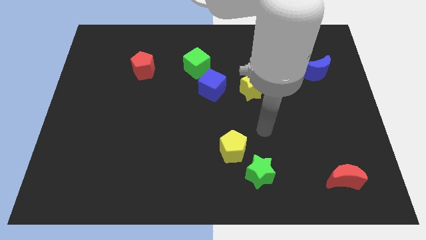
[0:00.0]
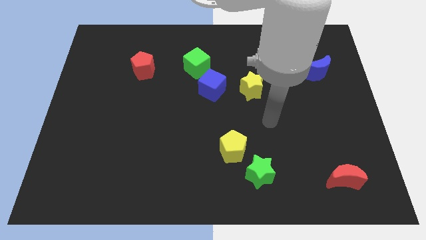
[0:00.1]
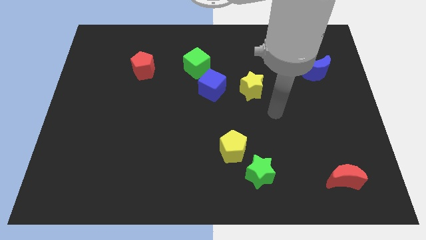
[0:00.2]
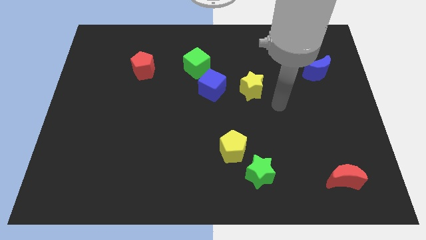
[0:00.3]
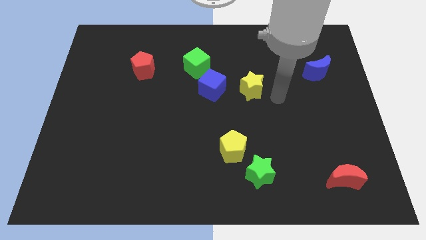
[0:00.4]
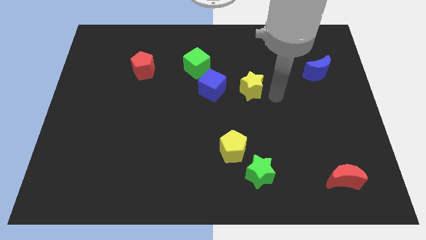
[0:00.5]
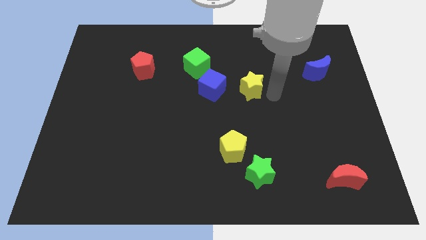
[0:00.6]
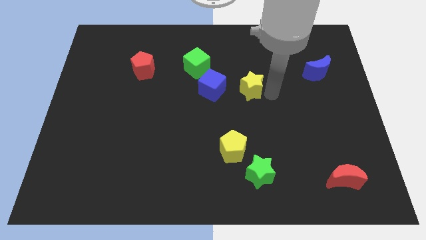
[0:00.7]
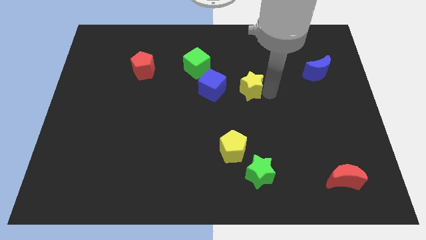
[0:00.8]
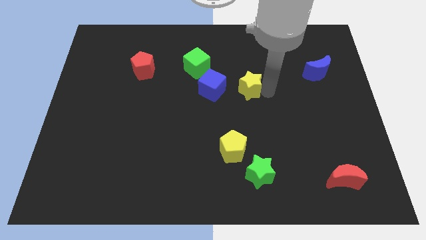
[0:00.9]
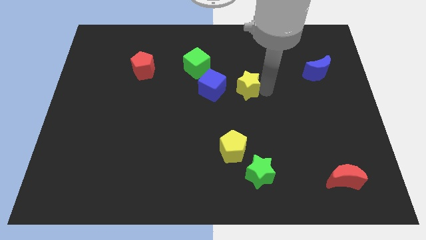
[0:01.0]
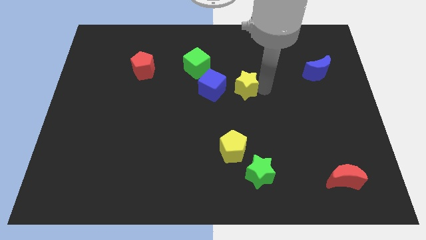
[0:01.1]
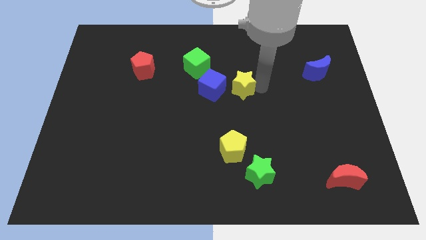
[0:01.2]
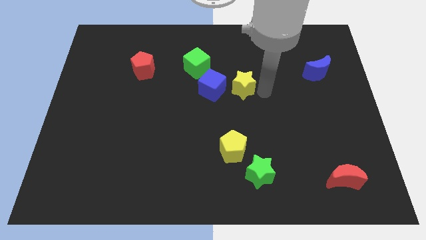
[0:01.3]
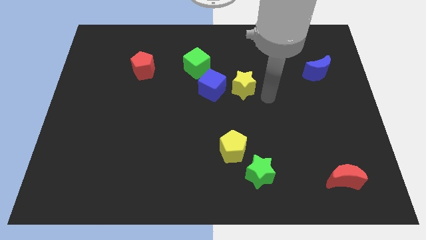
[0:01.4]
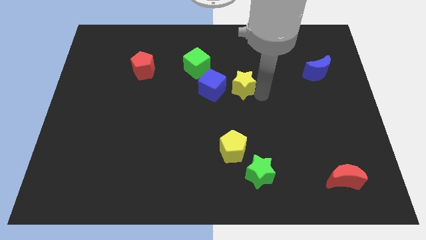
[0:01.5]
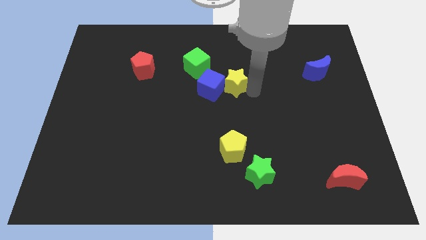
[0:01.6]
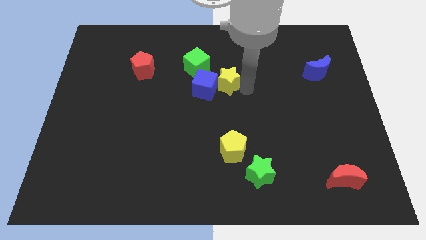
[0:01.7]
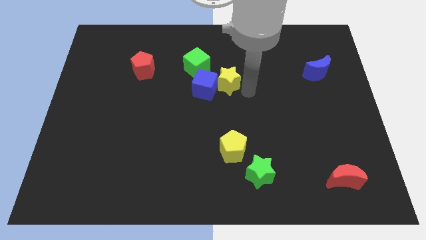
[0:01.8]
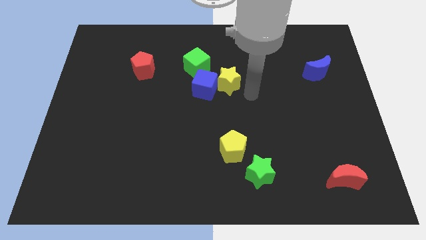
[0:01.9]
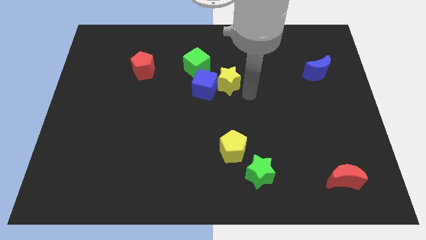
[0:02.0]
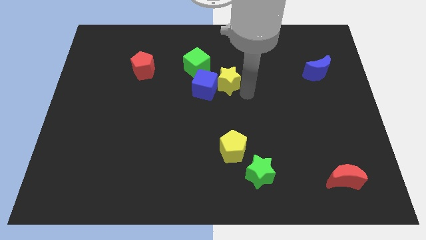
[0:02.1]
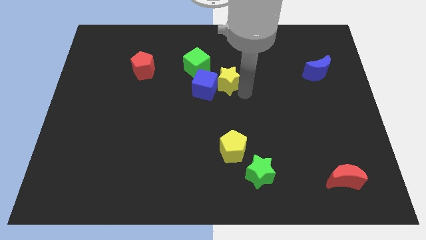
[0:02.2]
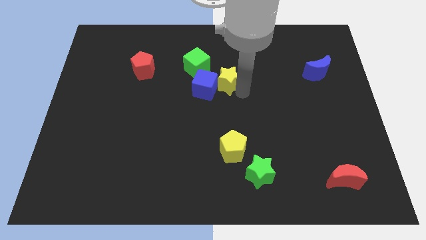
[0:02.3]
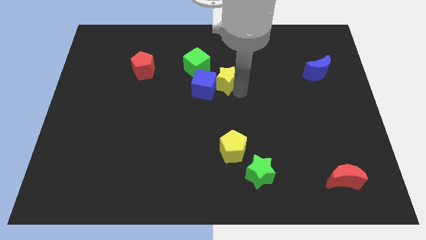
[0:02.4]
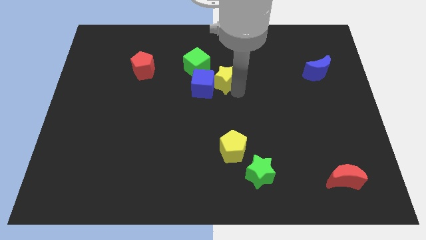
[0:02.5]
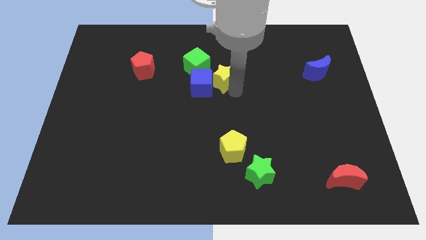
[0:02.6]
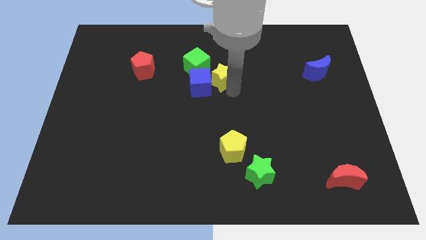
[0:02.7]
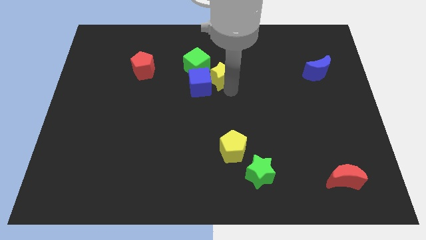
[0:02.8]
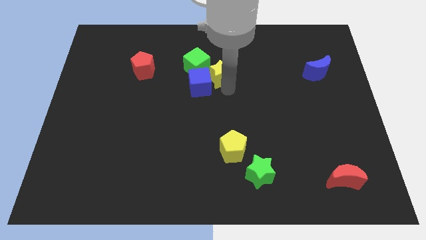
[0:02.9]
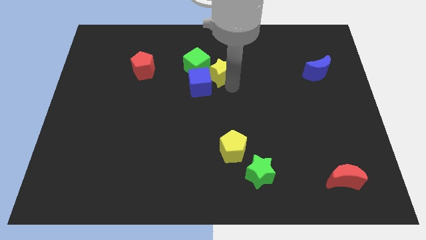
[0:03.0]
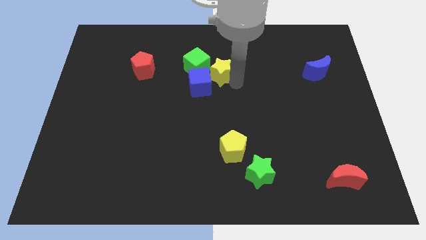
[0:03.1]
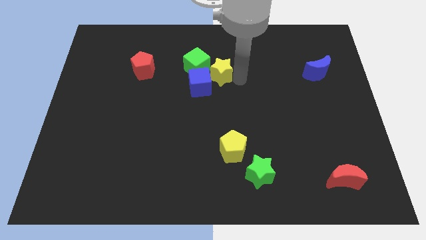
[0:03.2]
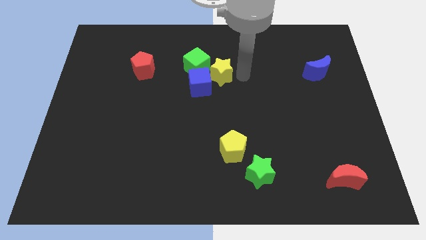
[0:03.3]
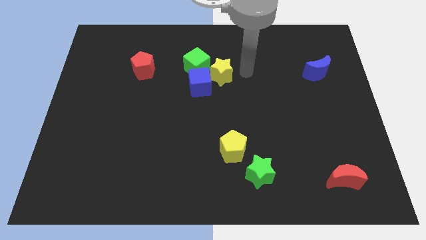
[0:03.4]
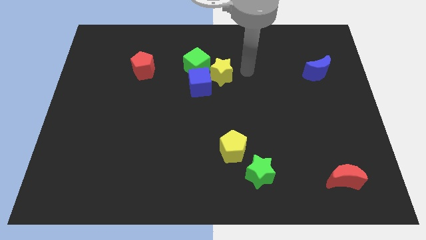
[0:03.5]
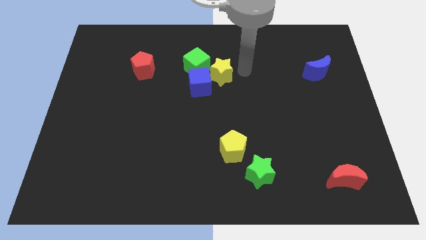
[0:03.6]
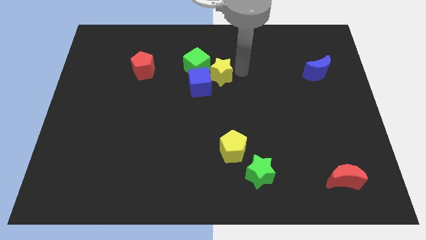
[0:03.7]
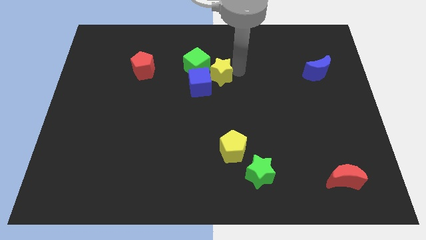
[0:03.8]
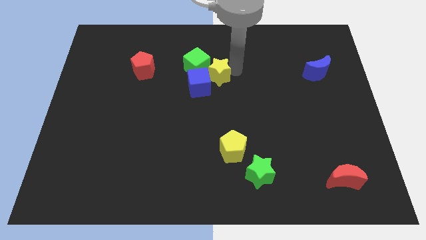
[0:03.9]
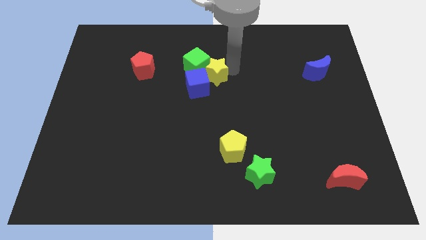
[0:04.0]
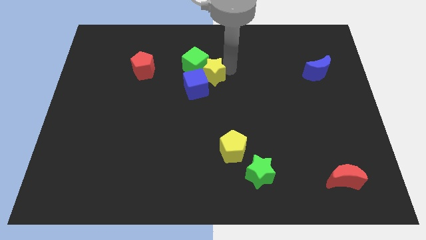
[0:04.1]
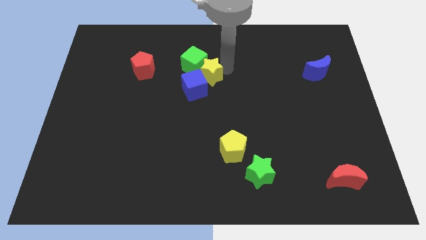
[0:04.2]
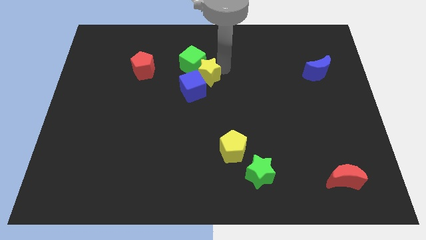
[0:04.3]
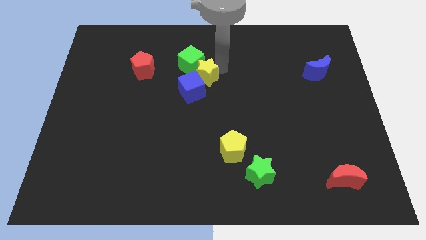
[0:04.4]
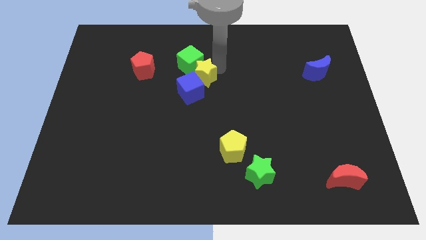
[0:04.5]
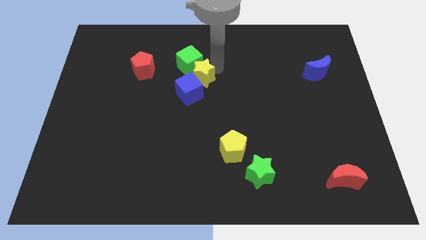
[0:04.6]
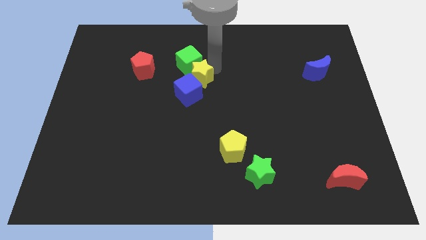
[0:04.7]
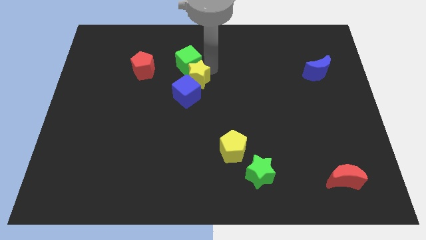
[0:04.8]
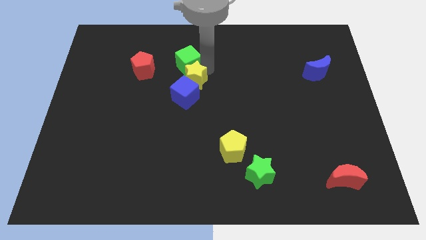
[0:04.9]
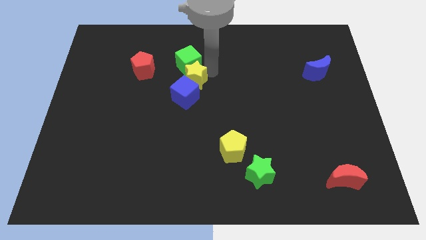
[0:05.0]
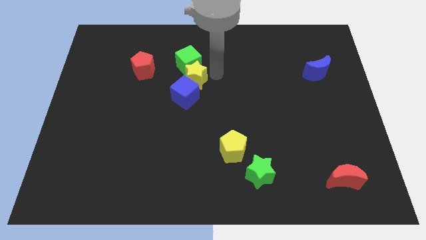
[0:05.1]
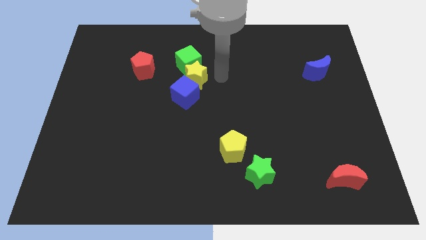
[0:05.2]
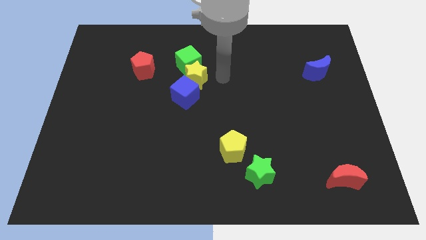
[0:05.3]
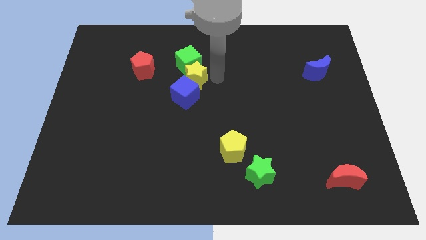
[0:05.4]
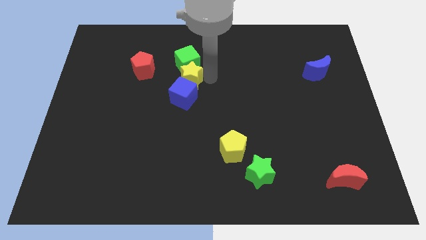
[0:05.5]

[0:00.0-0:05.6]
push the yellow star diagonally down and to the left of the green cube

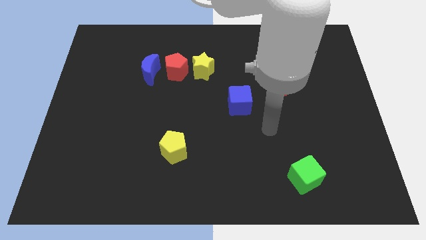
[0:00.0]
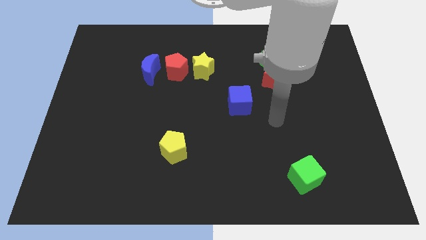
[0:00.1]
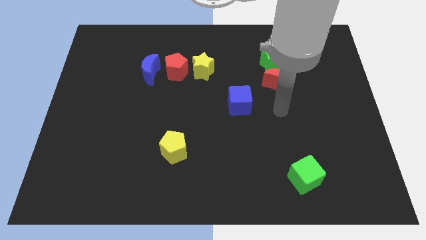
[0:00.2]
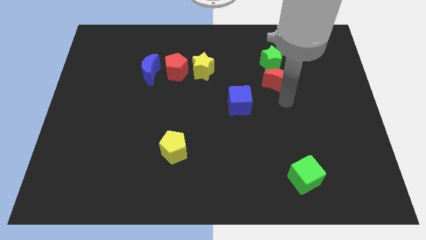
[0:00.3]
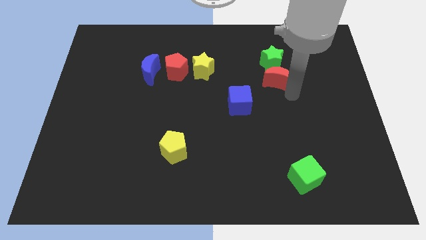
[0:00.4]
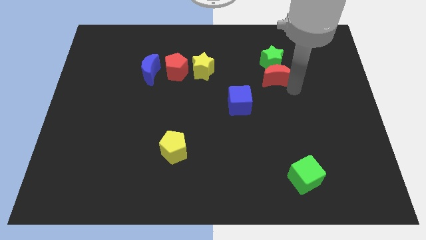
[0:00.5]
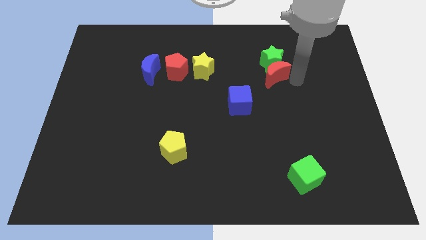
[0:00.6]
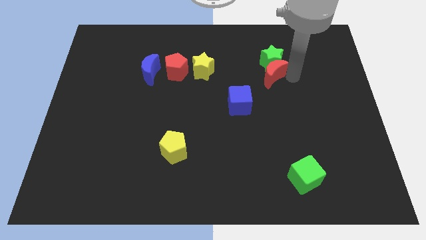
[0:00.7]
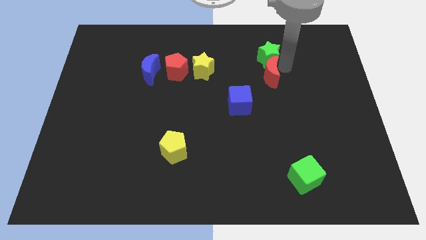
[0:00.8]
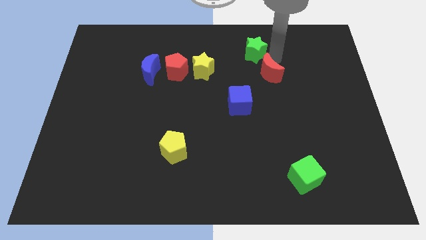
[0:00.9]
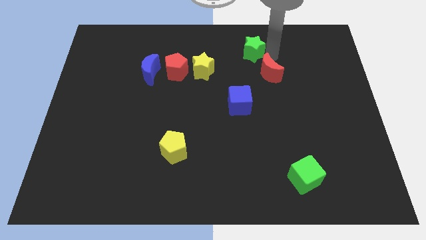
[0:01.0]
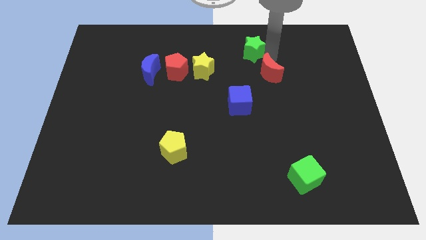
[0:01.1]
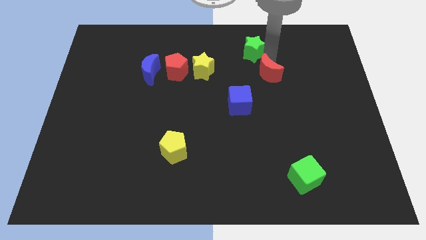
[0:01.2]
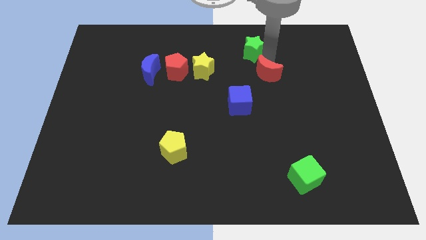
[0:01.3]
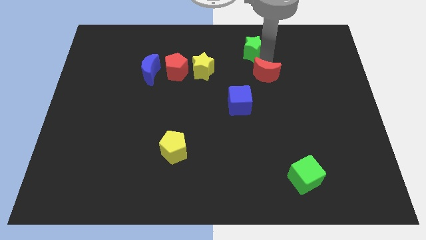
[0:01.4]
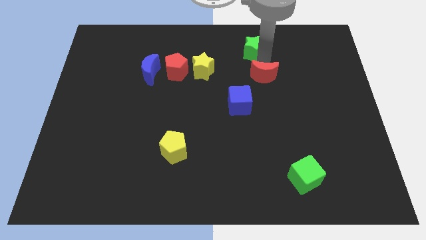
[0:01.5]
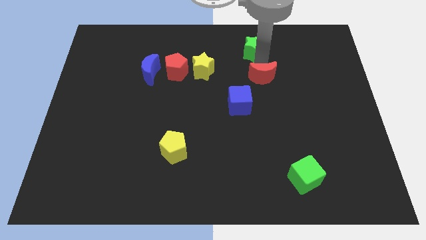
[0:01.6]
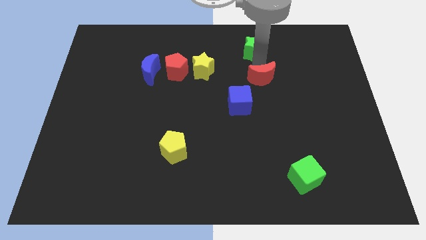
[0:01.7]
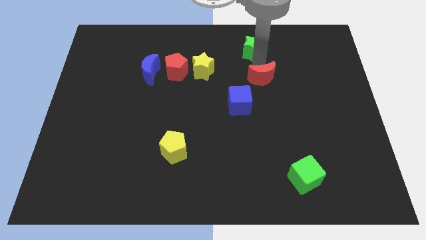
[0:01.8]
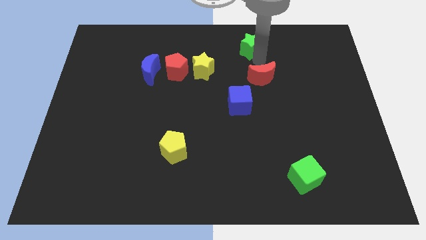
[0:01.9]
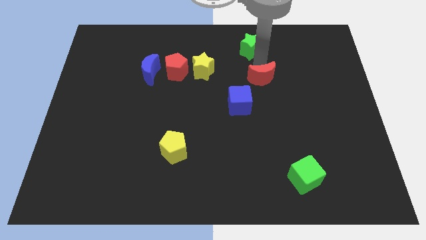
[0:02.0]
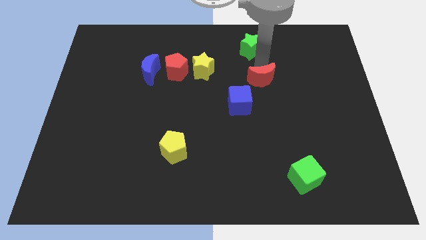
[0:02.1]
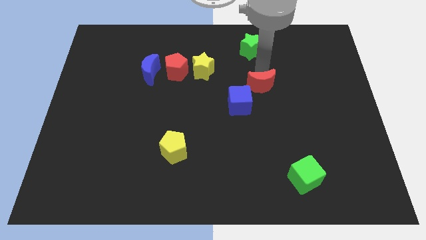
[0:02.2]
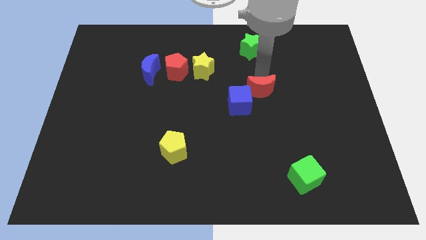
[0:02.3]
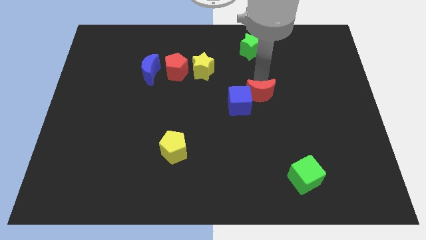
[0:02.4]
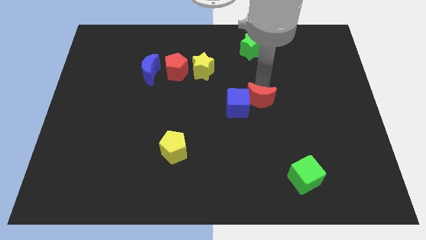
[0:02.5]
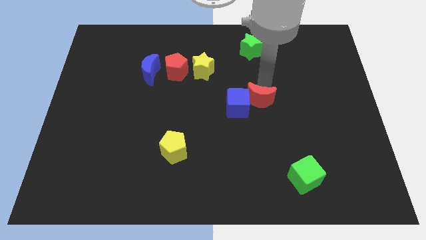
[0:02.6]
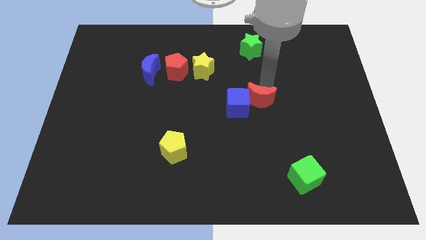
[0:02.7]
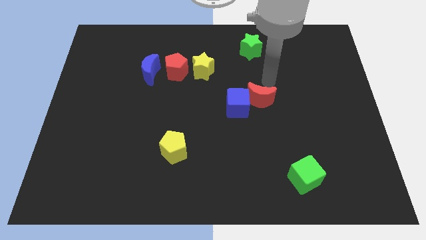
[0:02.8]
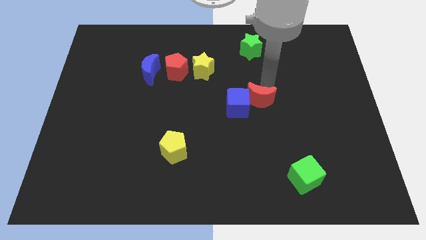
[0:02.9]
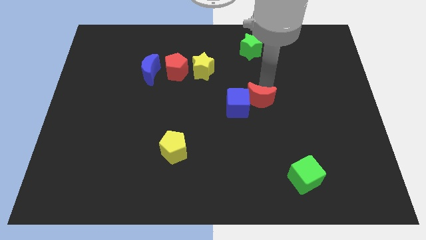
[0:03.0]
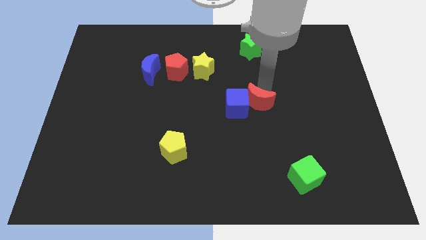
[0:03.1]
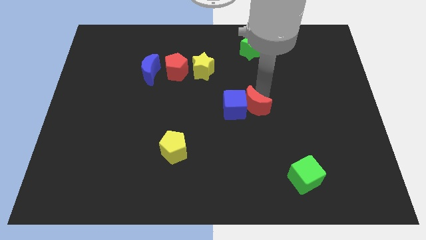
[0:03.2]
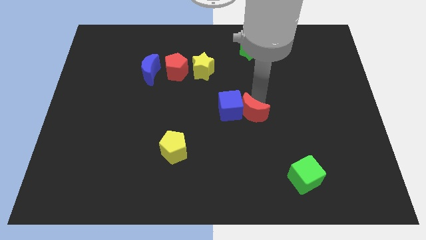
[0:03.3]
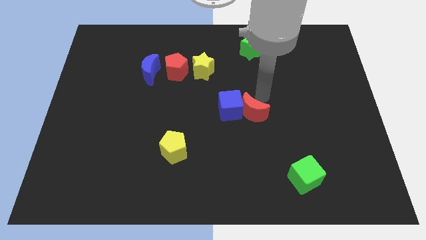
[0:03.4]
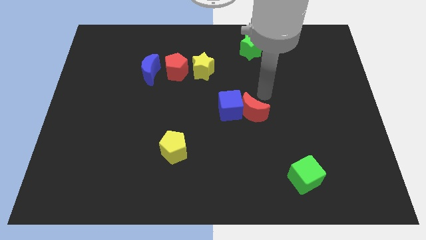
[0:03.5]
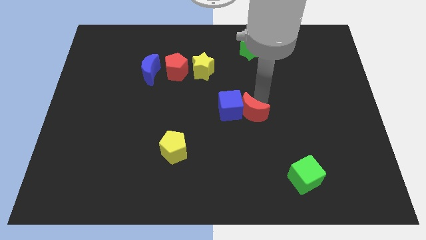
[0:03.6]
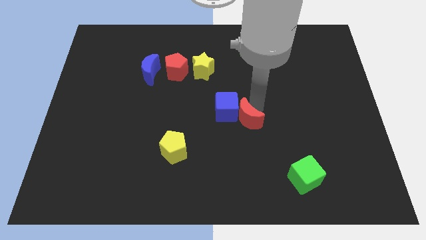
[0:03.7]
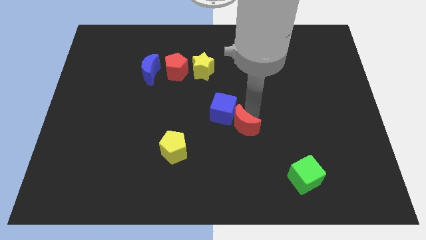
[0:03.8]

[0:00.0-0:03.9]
put the red moon below the blue cube
